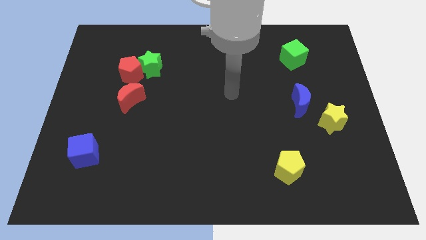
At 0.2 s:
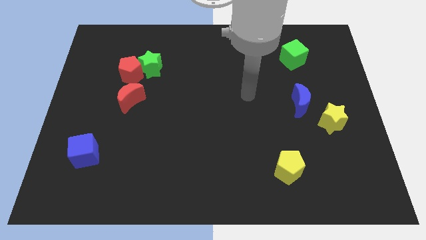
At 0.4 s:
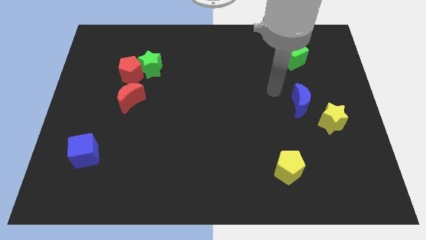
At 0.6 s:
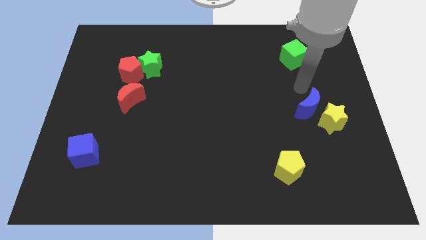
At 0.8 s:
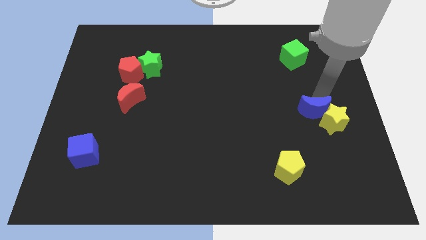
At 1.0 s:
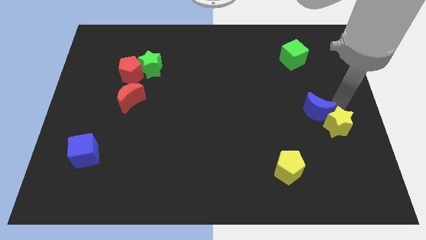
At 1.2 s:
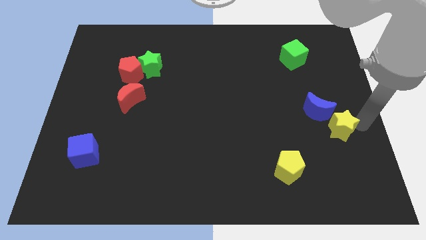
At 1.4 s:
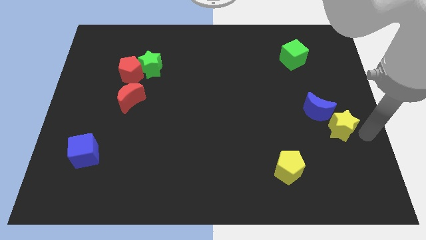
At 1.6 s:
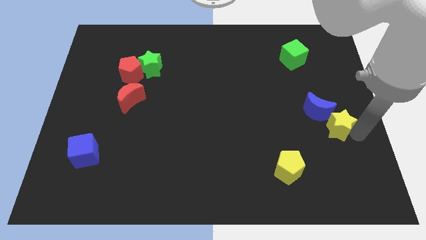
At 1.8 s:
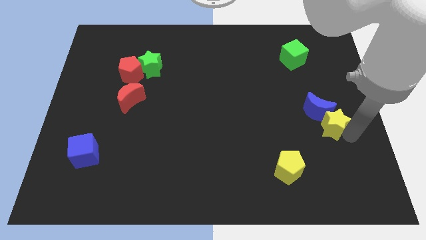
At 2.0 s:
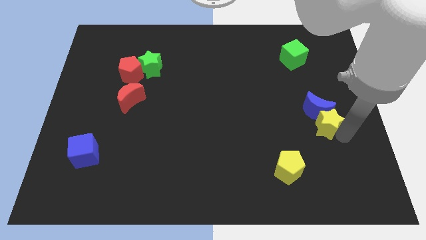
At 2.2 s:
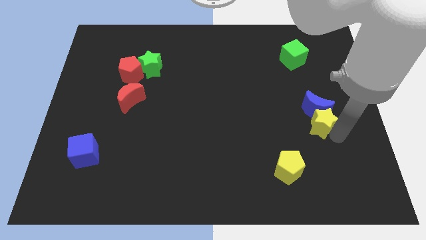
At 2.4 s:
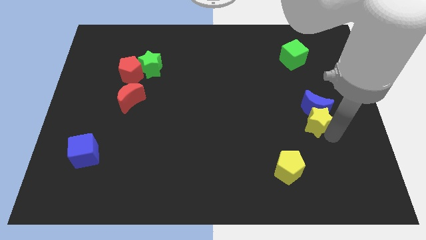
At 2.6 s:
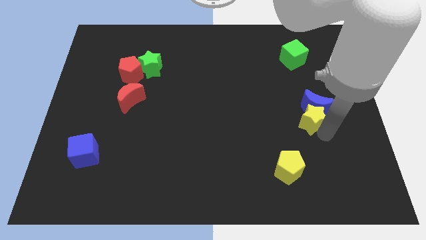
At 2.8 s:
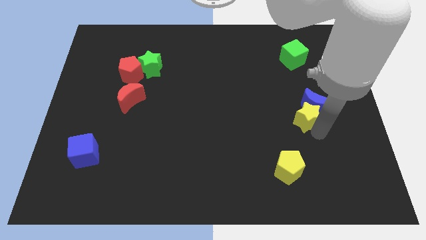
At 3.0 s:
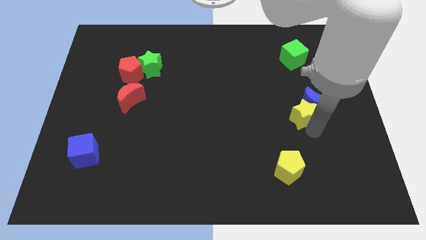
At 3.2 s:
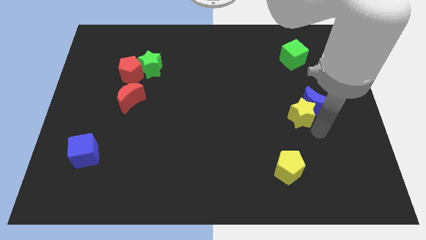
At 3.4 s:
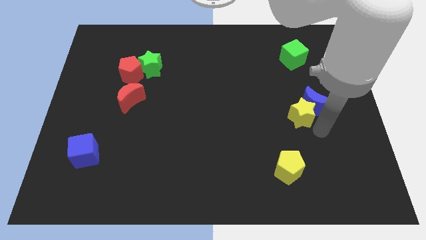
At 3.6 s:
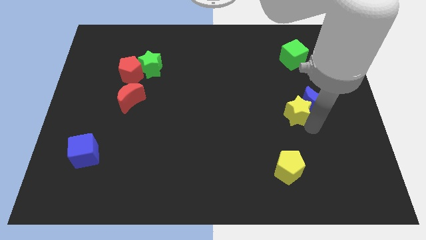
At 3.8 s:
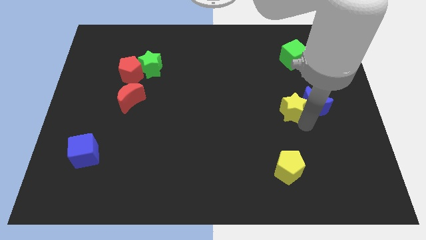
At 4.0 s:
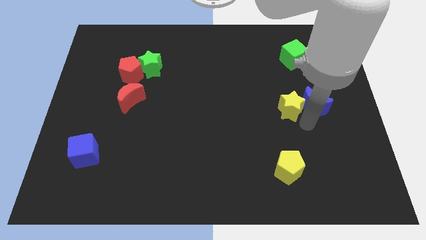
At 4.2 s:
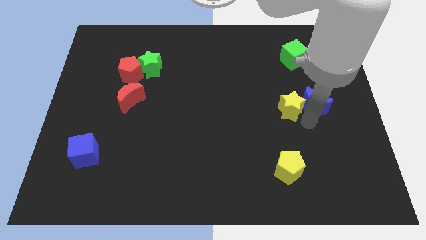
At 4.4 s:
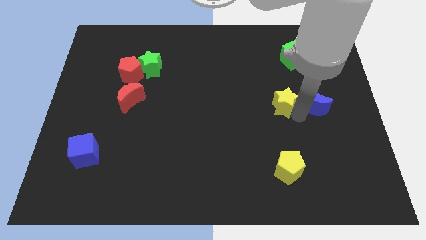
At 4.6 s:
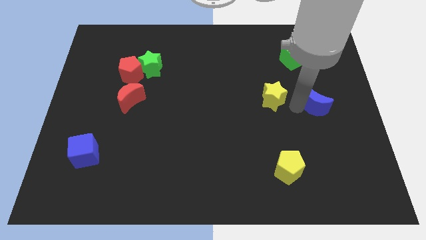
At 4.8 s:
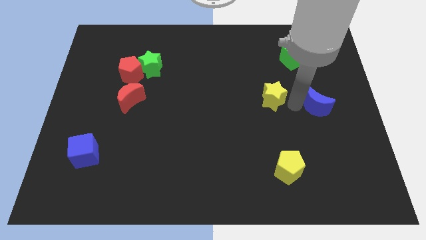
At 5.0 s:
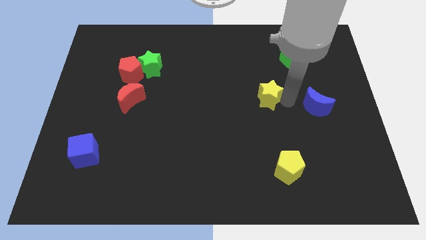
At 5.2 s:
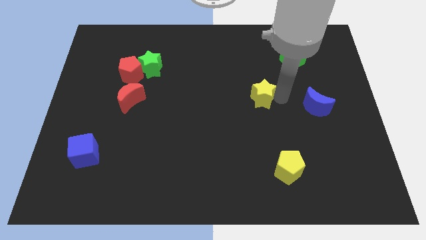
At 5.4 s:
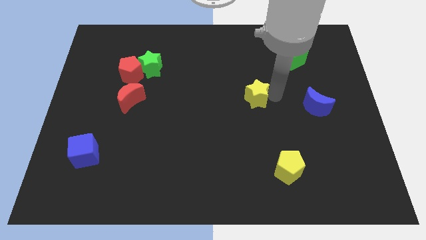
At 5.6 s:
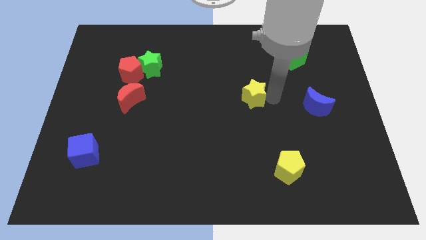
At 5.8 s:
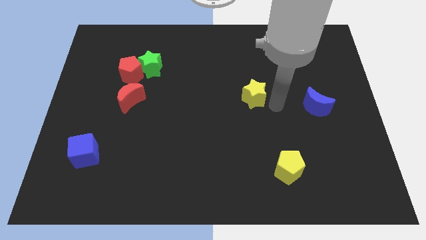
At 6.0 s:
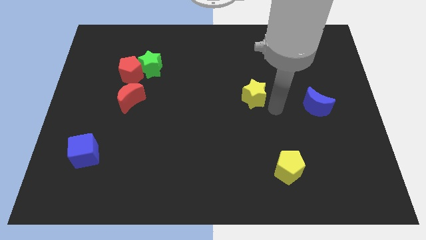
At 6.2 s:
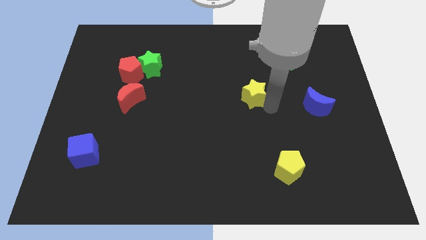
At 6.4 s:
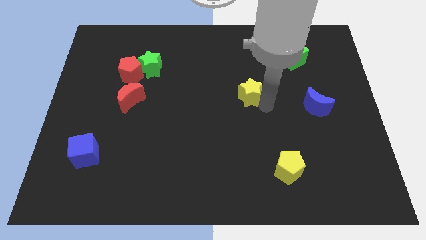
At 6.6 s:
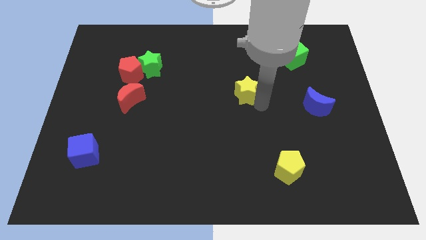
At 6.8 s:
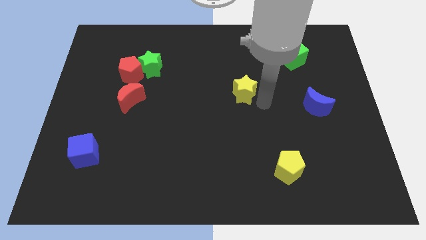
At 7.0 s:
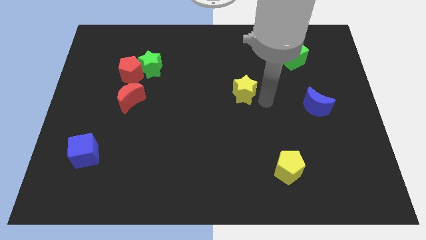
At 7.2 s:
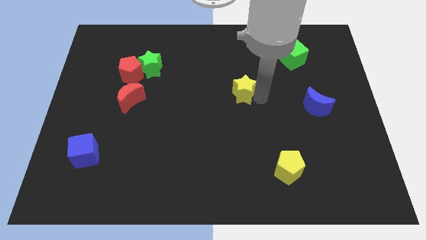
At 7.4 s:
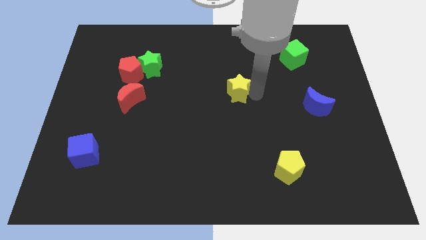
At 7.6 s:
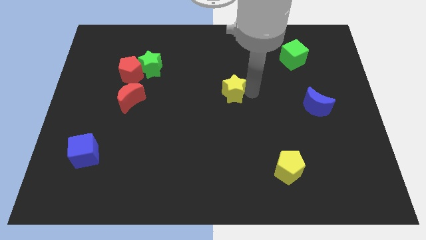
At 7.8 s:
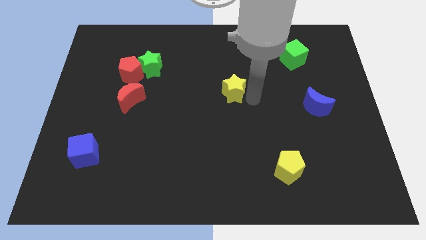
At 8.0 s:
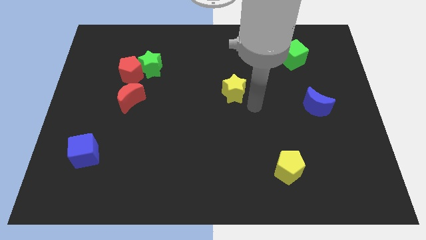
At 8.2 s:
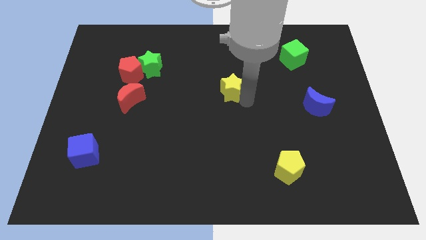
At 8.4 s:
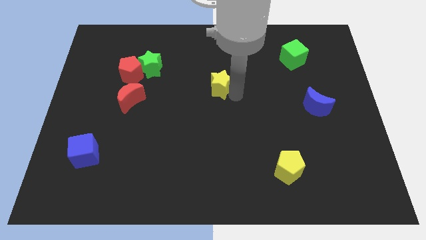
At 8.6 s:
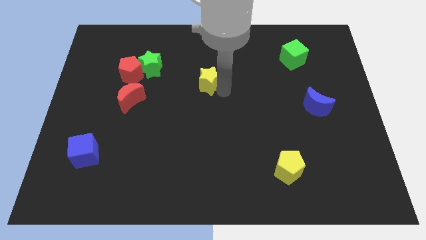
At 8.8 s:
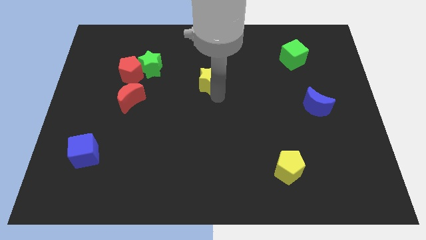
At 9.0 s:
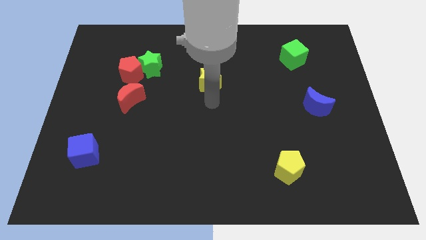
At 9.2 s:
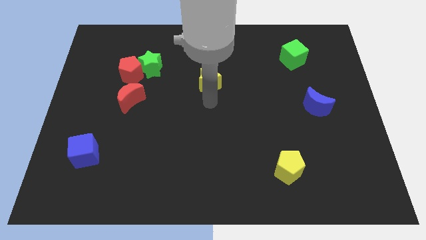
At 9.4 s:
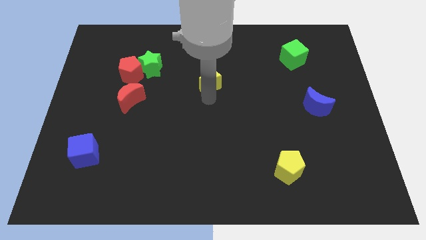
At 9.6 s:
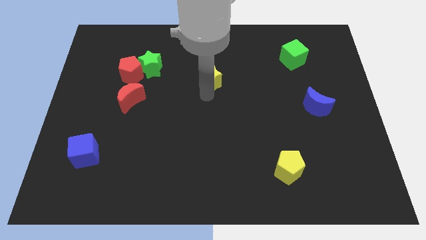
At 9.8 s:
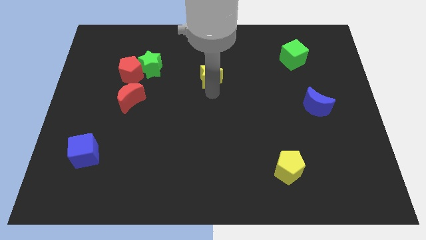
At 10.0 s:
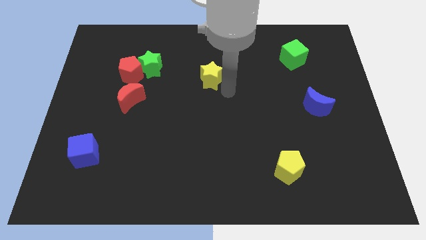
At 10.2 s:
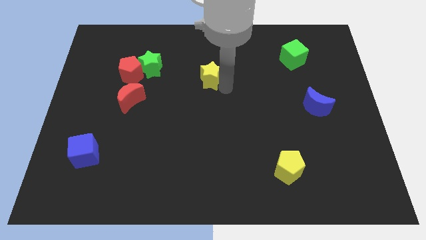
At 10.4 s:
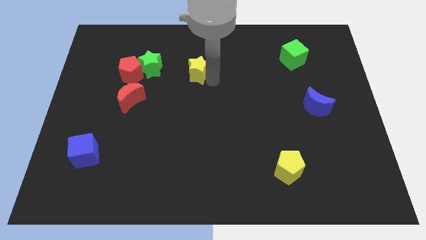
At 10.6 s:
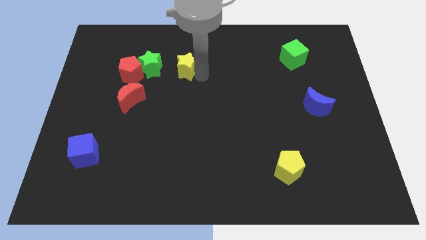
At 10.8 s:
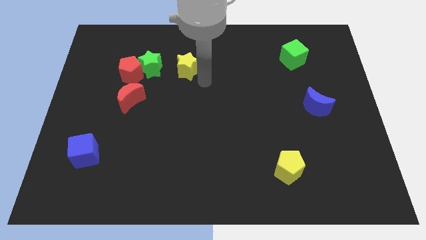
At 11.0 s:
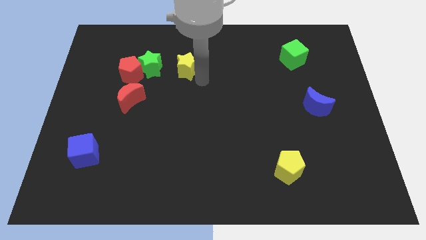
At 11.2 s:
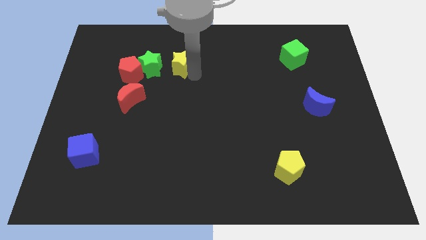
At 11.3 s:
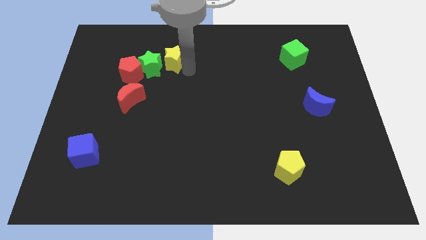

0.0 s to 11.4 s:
move the yellow star to the top right side of the red pentagon

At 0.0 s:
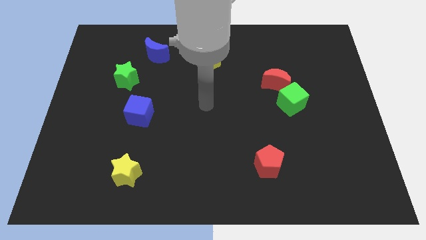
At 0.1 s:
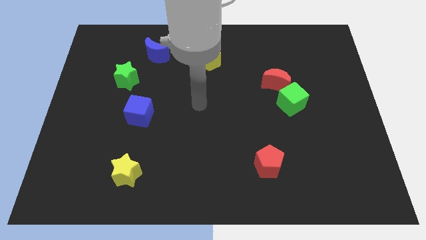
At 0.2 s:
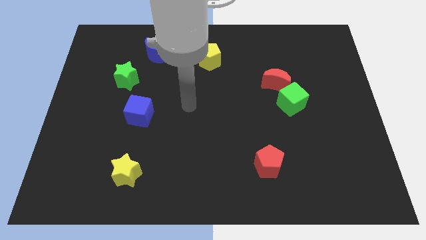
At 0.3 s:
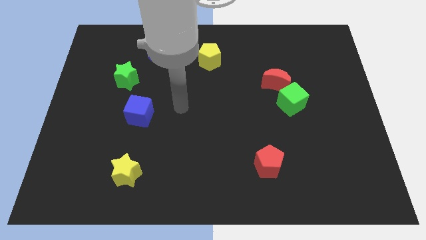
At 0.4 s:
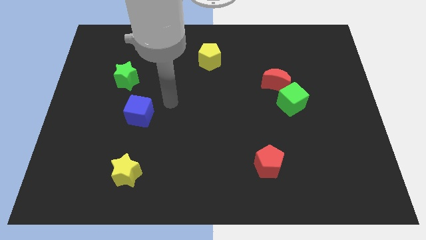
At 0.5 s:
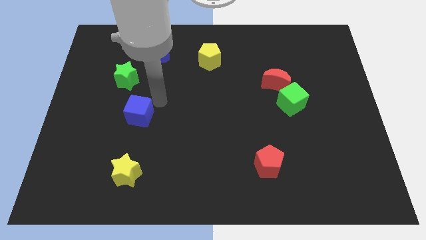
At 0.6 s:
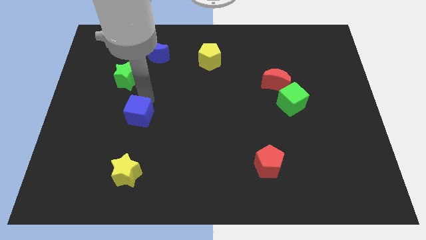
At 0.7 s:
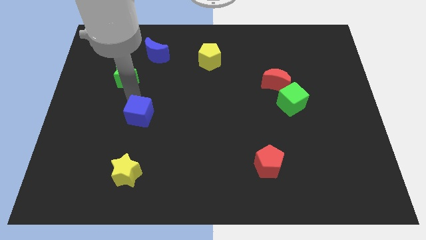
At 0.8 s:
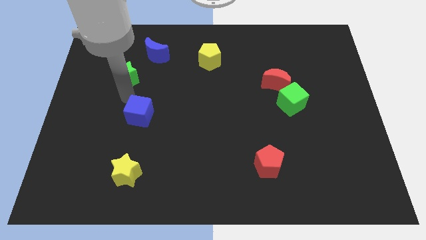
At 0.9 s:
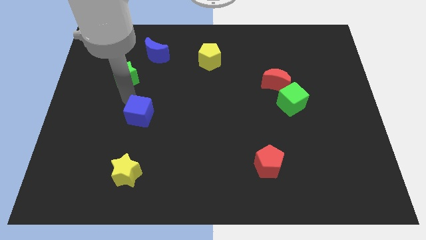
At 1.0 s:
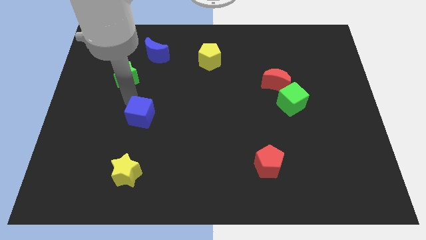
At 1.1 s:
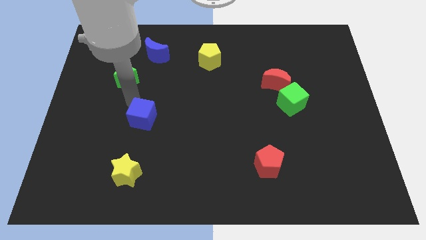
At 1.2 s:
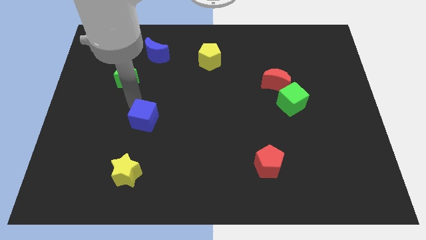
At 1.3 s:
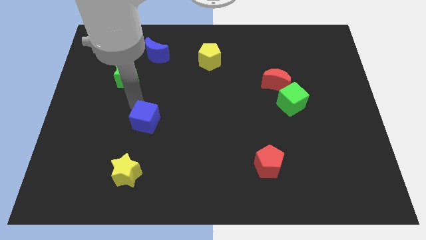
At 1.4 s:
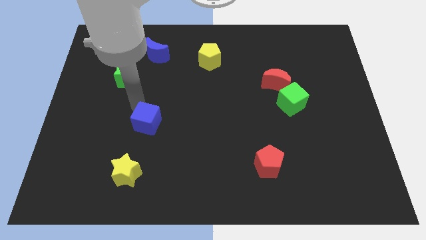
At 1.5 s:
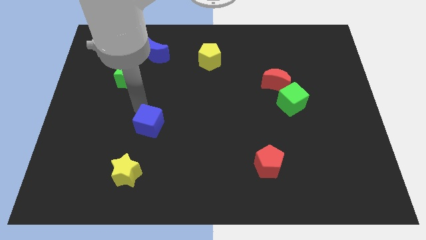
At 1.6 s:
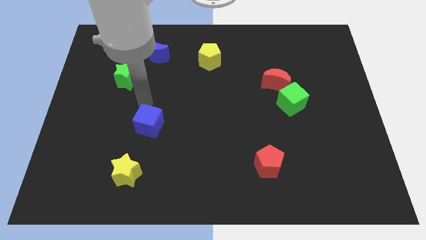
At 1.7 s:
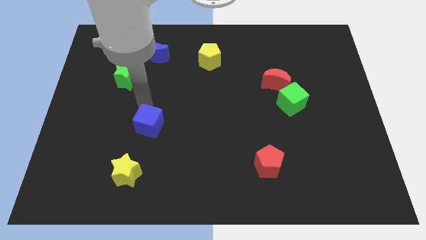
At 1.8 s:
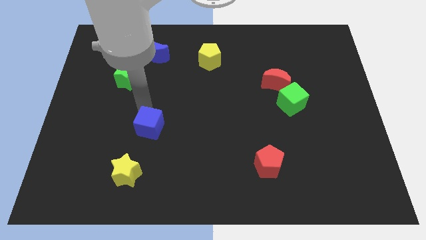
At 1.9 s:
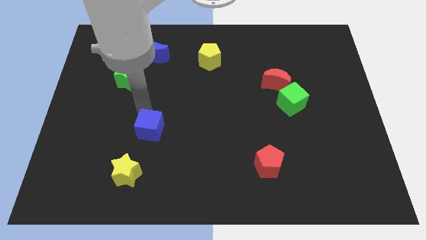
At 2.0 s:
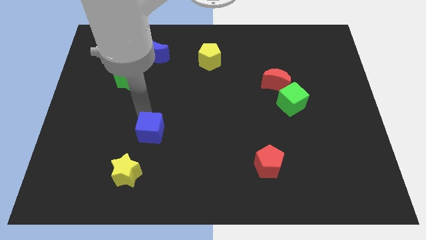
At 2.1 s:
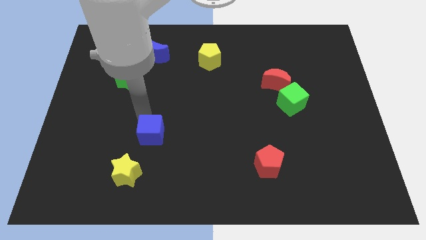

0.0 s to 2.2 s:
put the blue cube to the top right of the yellow star
